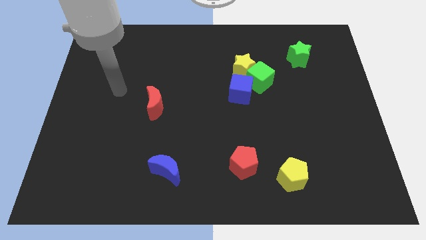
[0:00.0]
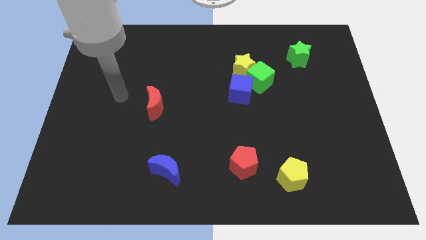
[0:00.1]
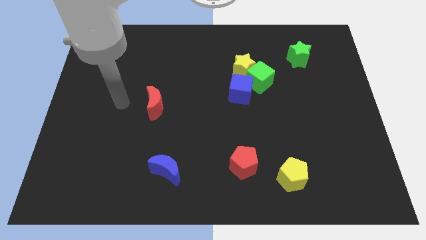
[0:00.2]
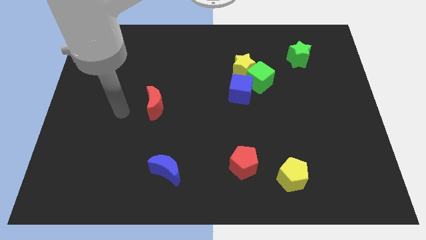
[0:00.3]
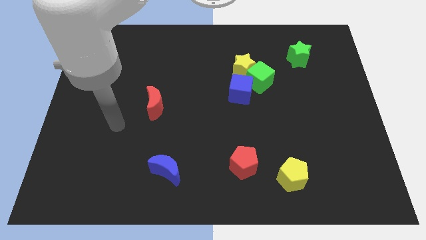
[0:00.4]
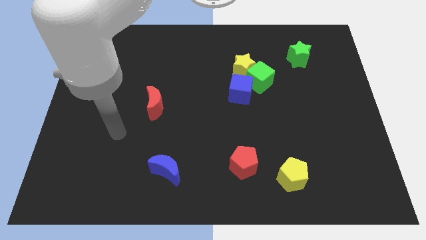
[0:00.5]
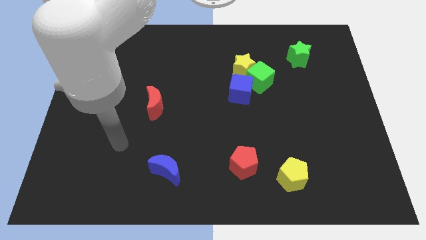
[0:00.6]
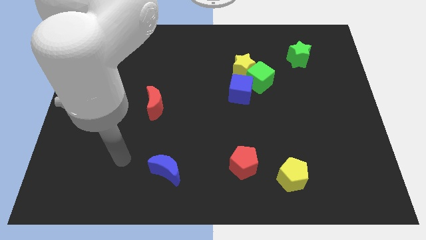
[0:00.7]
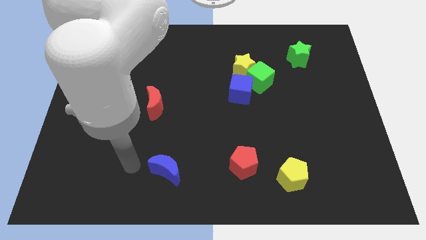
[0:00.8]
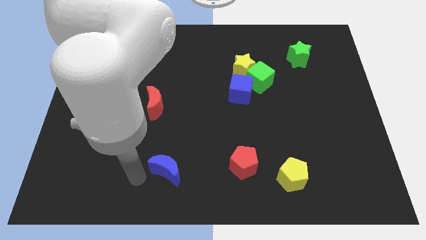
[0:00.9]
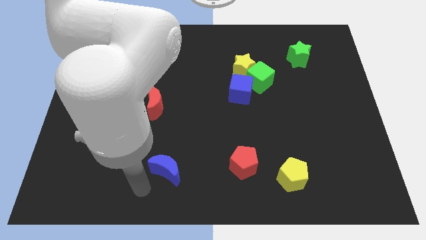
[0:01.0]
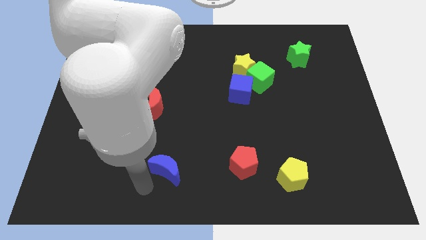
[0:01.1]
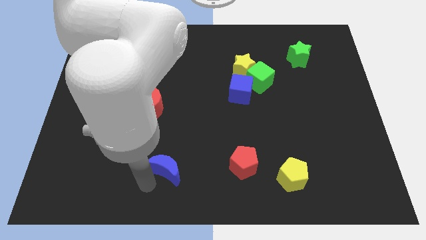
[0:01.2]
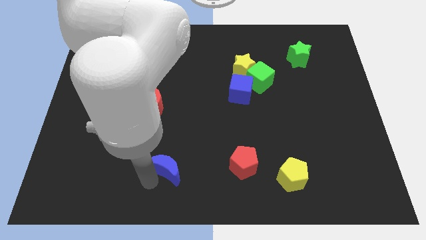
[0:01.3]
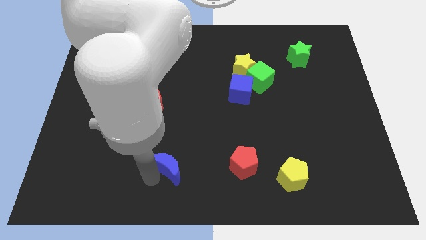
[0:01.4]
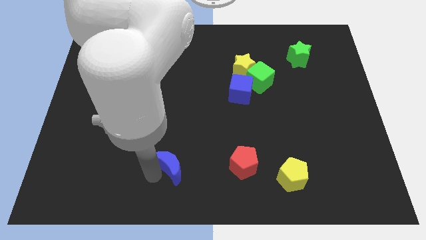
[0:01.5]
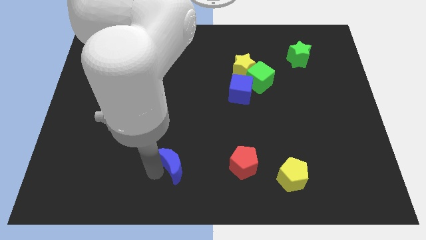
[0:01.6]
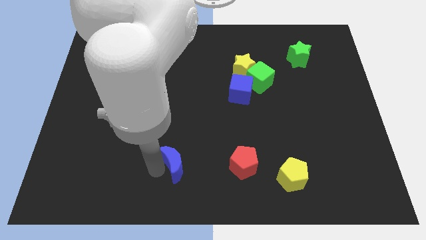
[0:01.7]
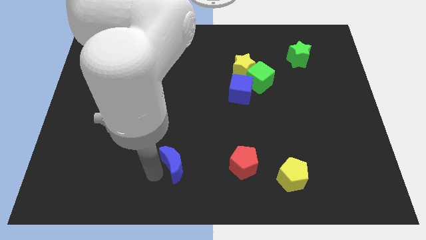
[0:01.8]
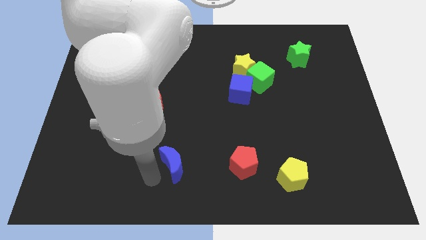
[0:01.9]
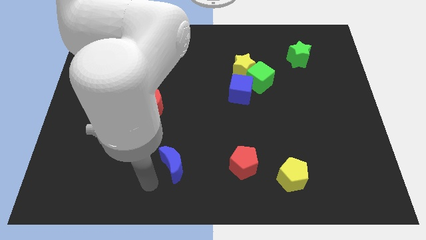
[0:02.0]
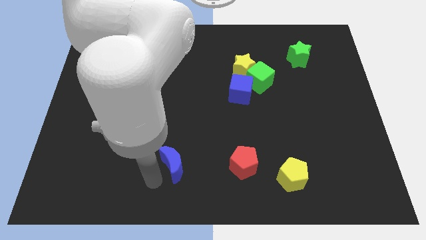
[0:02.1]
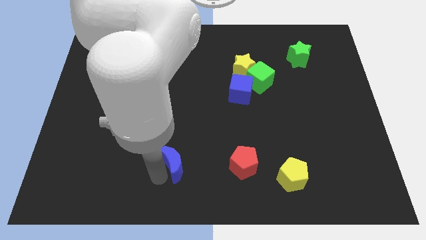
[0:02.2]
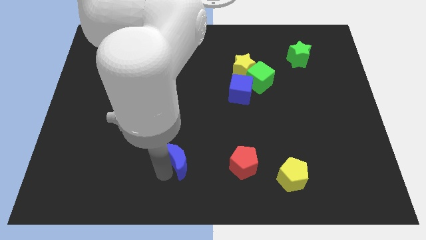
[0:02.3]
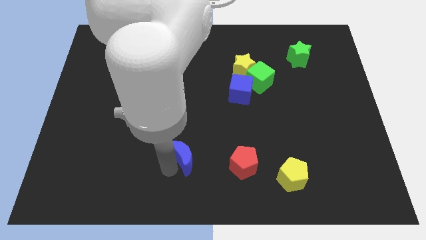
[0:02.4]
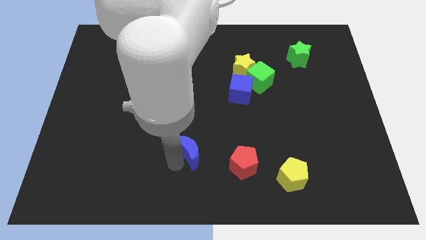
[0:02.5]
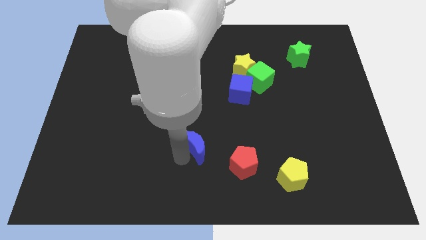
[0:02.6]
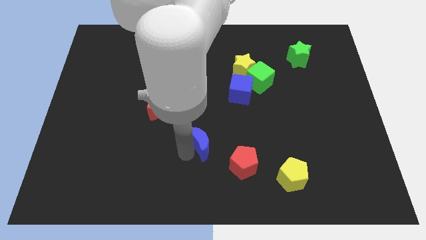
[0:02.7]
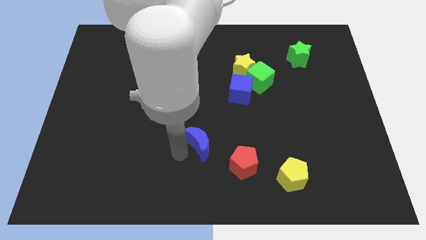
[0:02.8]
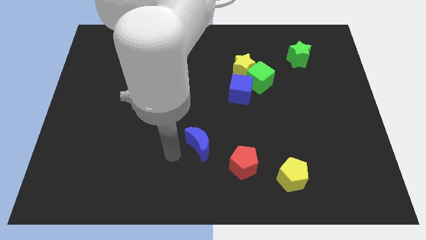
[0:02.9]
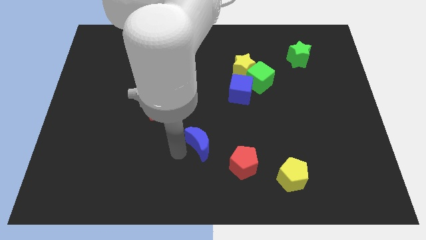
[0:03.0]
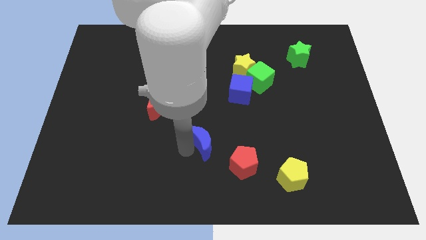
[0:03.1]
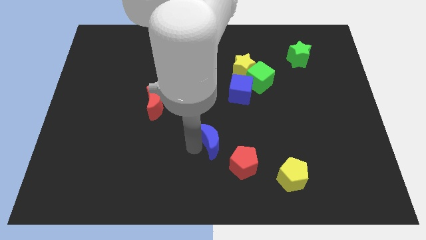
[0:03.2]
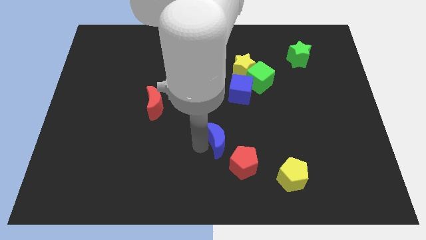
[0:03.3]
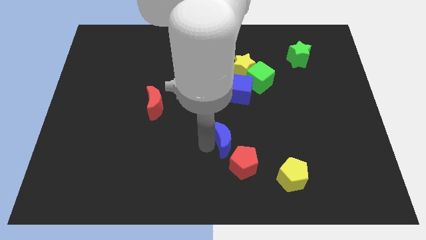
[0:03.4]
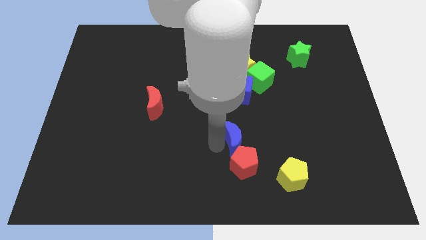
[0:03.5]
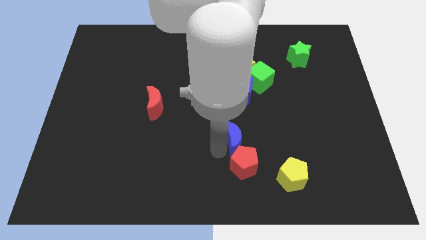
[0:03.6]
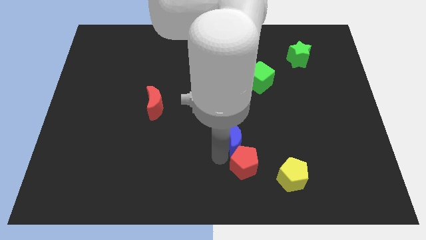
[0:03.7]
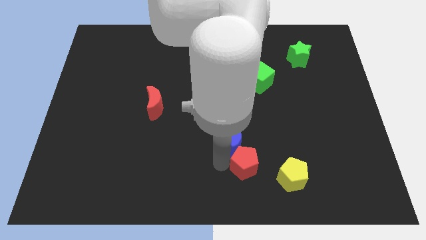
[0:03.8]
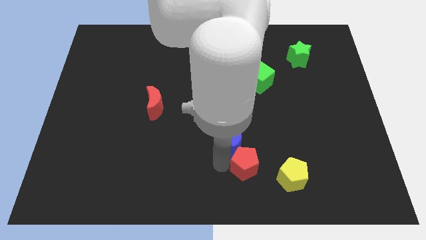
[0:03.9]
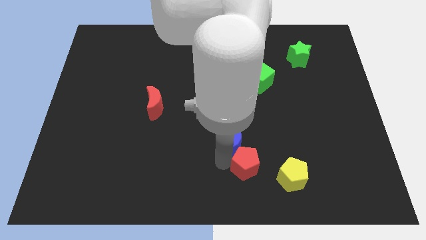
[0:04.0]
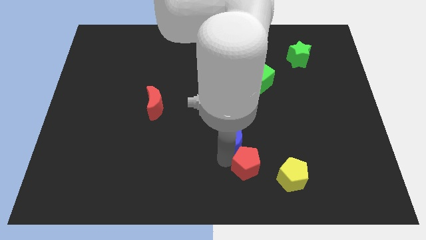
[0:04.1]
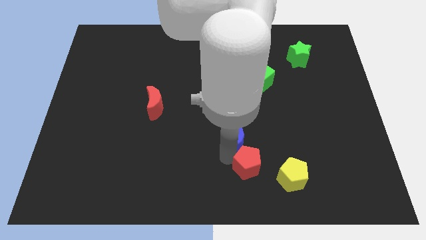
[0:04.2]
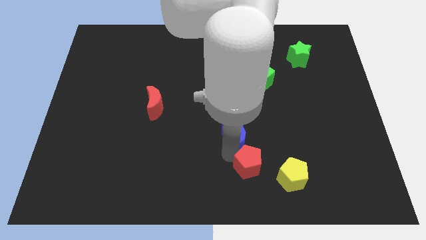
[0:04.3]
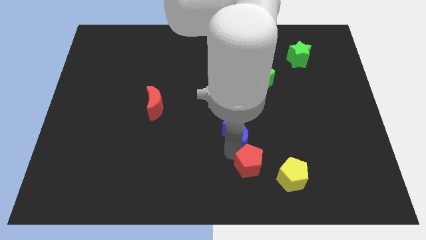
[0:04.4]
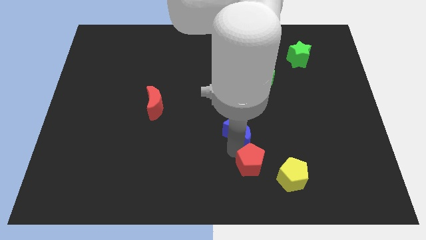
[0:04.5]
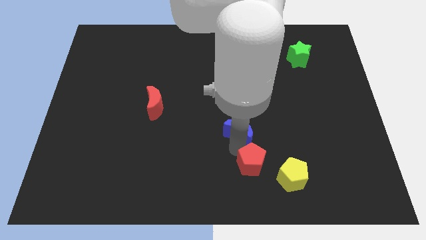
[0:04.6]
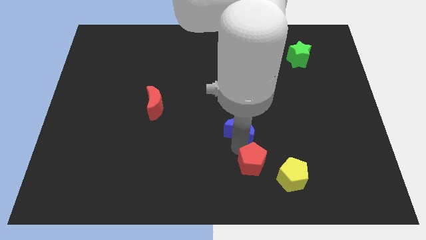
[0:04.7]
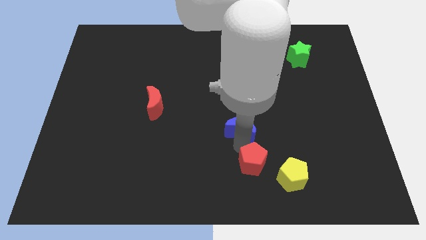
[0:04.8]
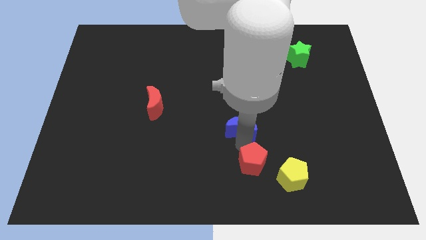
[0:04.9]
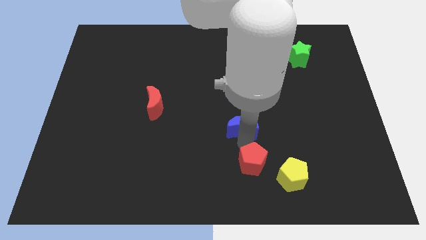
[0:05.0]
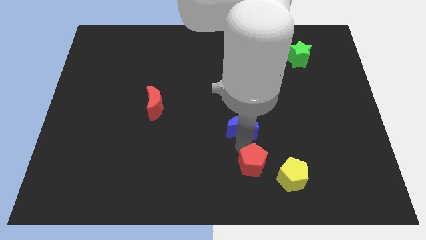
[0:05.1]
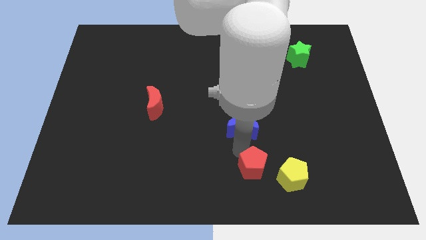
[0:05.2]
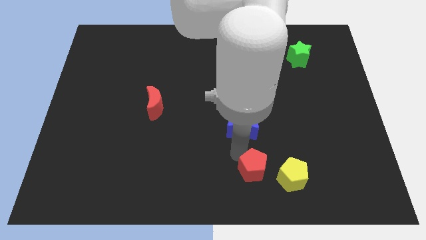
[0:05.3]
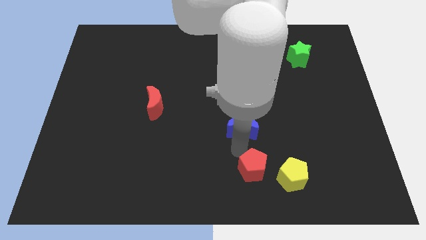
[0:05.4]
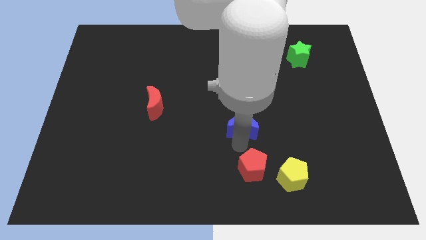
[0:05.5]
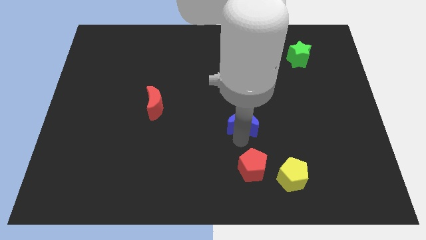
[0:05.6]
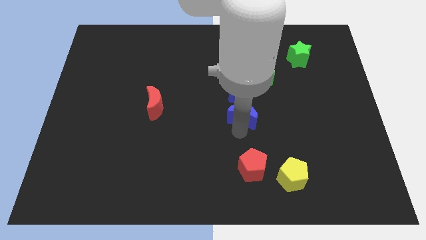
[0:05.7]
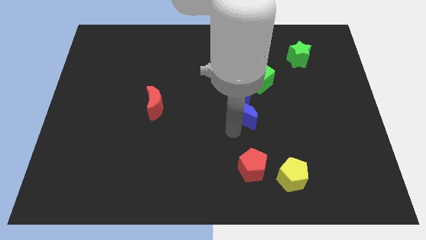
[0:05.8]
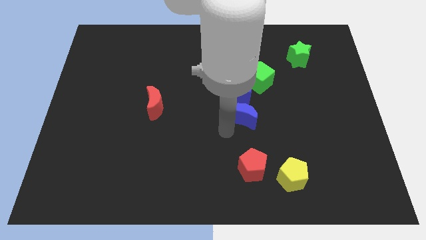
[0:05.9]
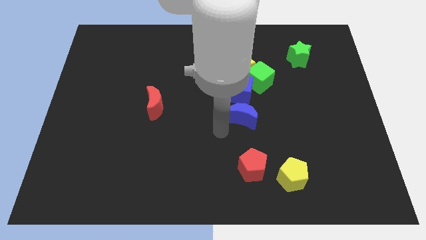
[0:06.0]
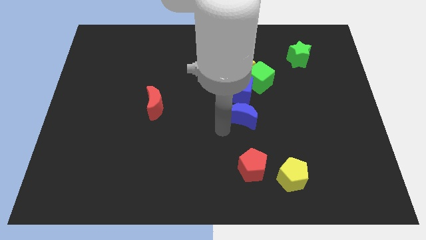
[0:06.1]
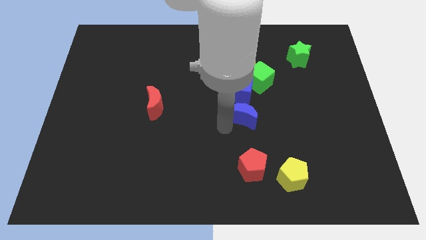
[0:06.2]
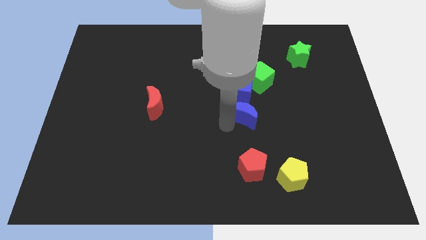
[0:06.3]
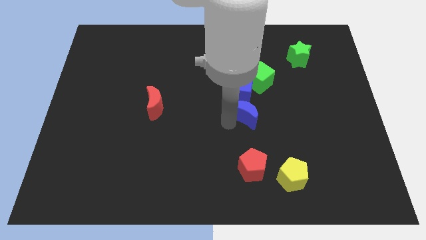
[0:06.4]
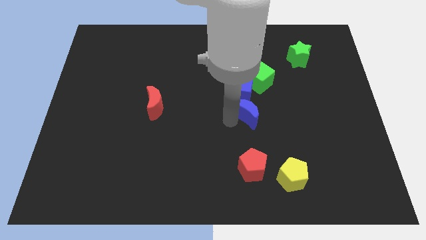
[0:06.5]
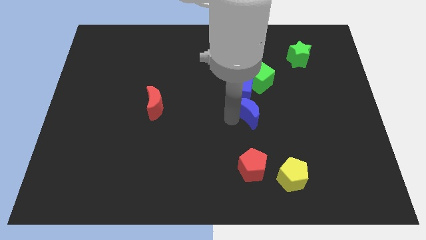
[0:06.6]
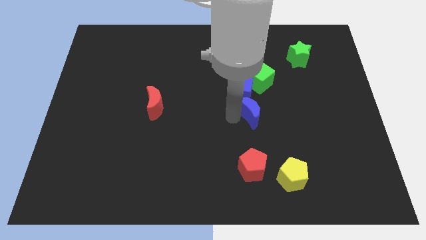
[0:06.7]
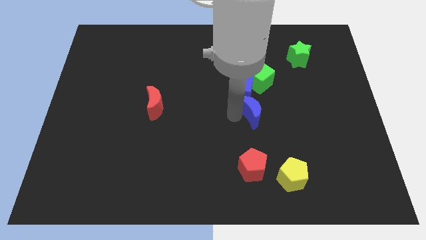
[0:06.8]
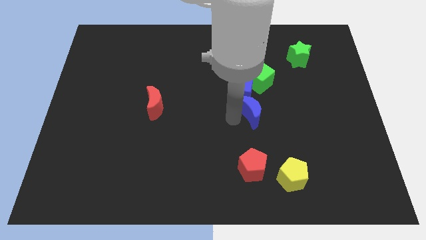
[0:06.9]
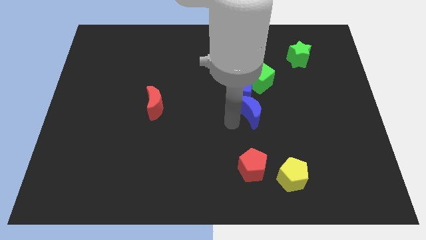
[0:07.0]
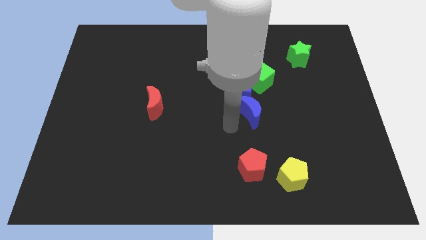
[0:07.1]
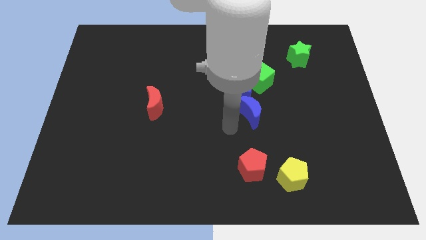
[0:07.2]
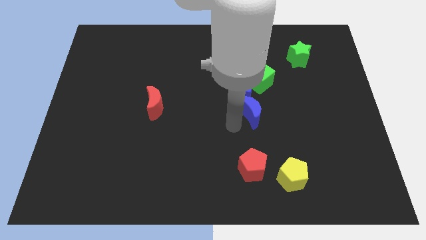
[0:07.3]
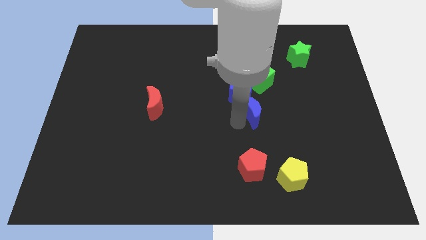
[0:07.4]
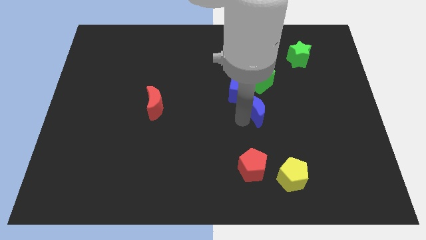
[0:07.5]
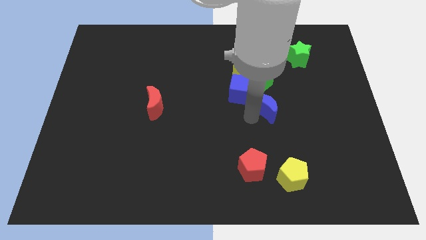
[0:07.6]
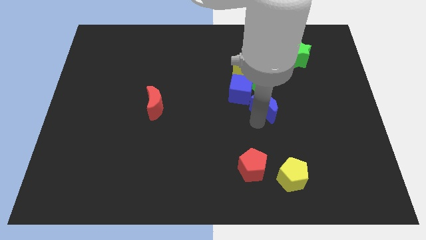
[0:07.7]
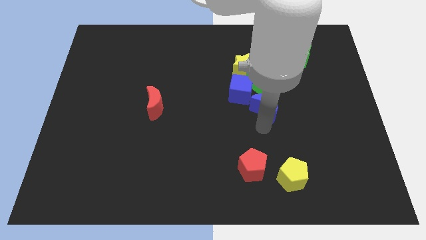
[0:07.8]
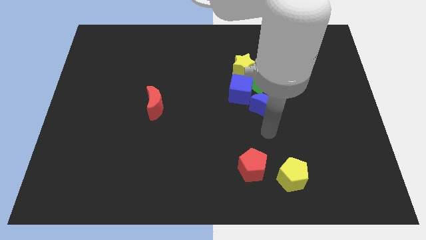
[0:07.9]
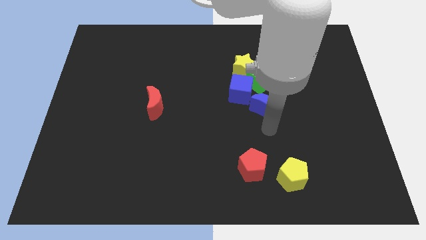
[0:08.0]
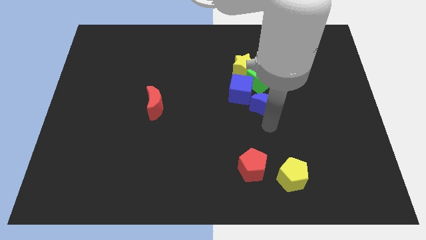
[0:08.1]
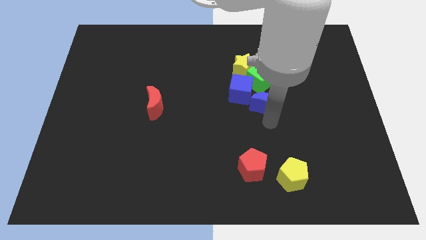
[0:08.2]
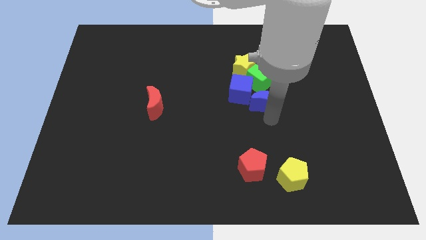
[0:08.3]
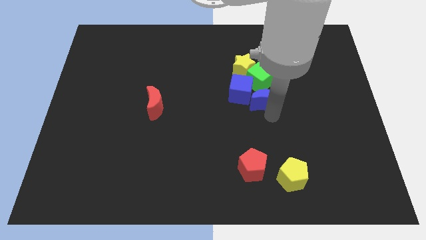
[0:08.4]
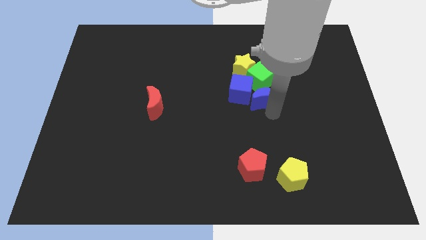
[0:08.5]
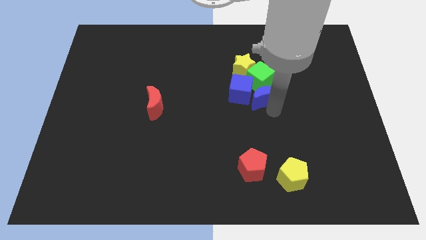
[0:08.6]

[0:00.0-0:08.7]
slide the blue moon to the green cube
